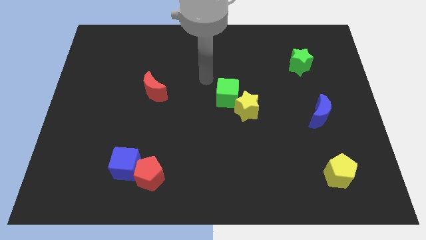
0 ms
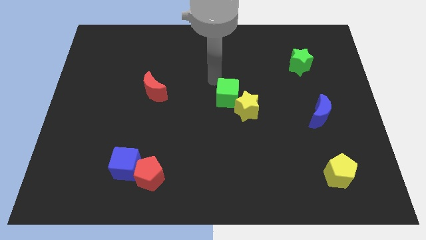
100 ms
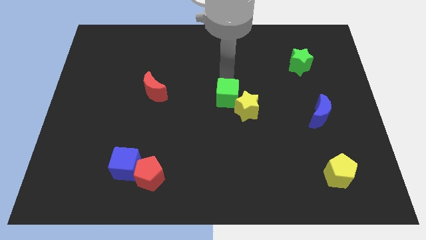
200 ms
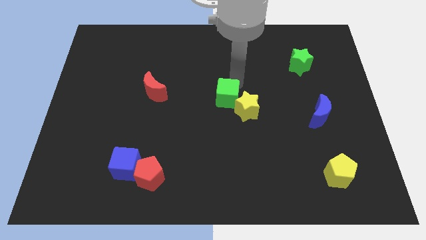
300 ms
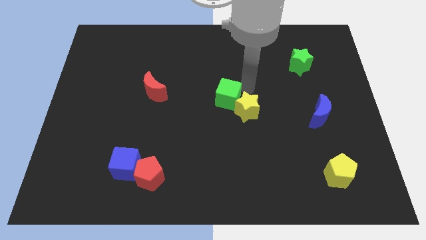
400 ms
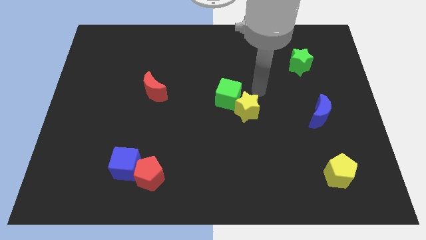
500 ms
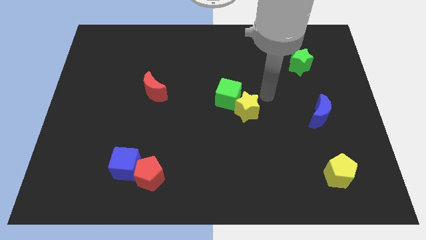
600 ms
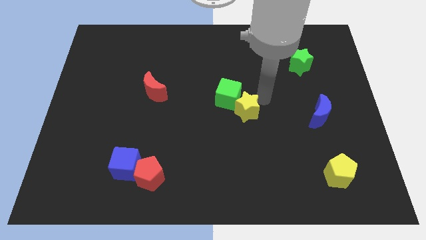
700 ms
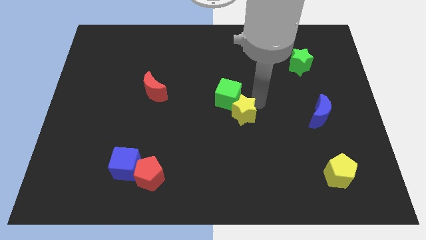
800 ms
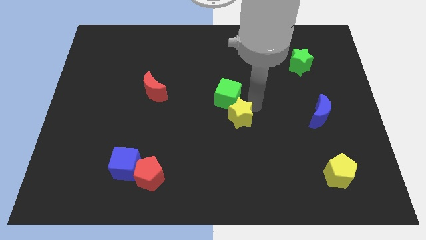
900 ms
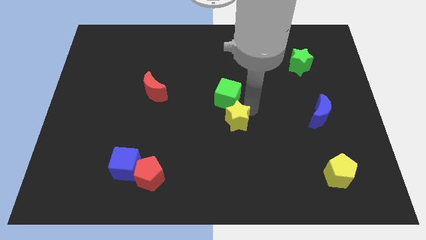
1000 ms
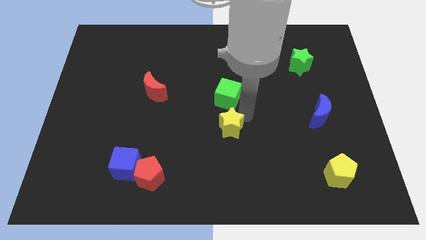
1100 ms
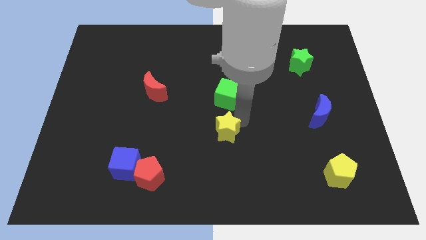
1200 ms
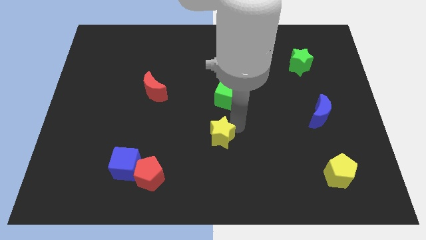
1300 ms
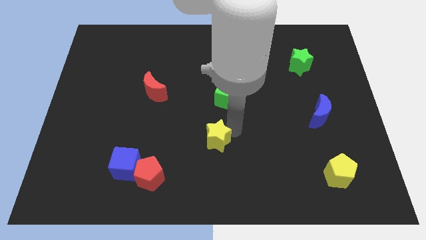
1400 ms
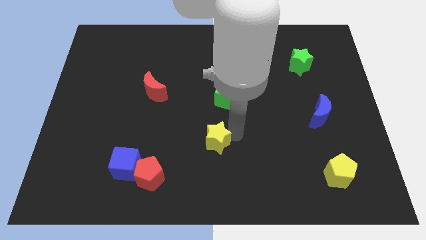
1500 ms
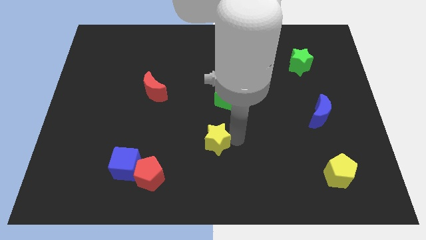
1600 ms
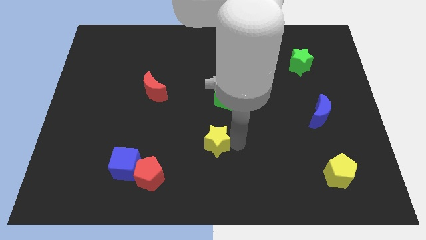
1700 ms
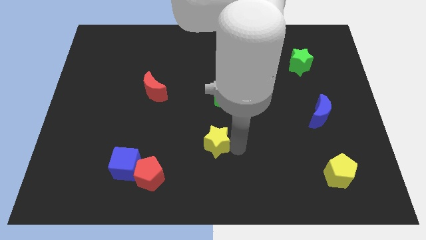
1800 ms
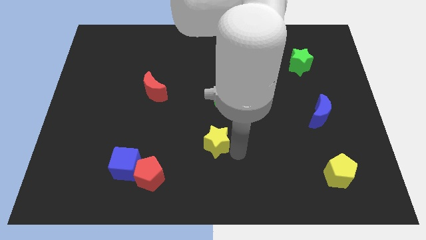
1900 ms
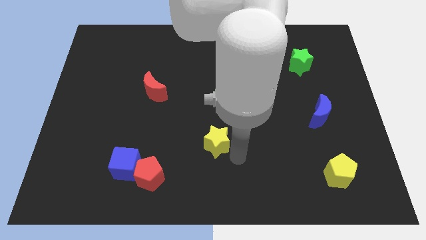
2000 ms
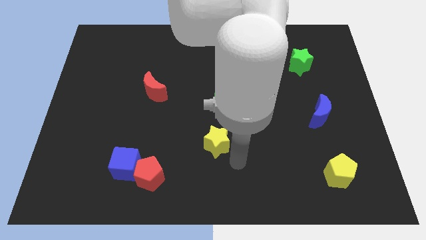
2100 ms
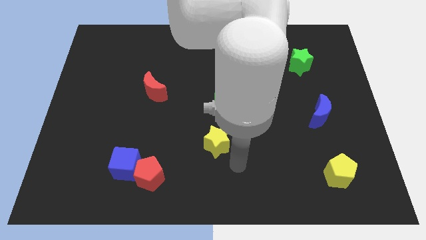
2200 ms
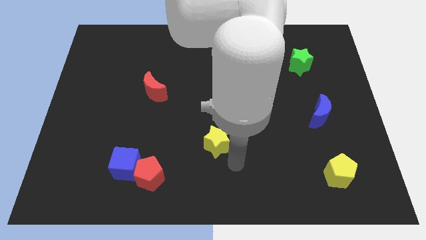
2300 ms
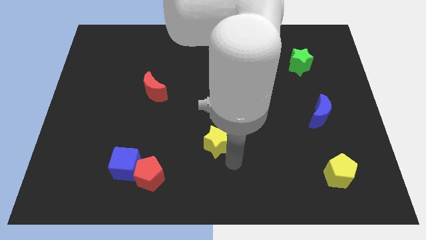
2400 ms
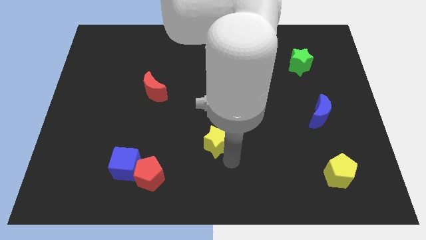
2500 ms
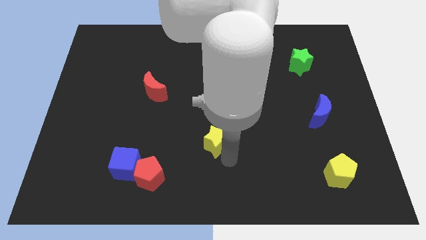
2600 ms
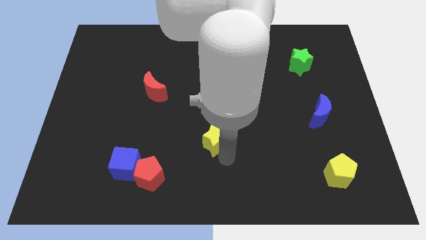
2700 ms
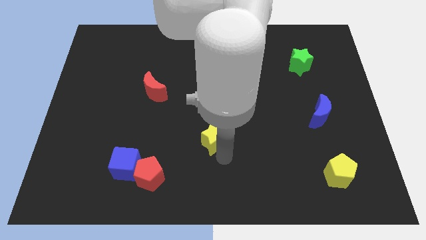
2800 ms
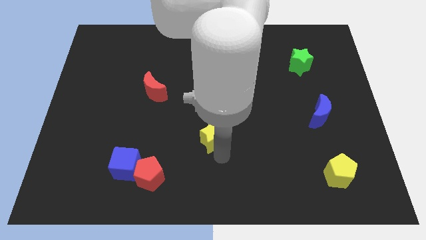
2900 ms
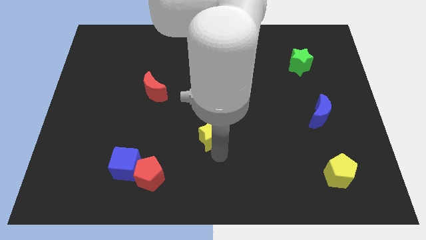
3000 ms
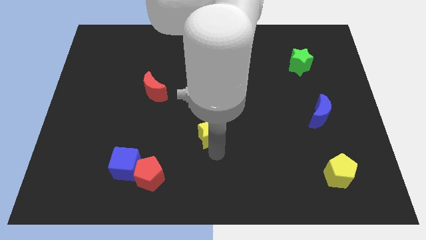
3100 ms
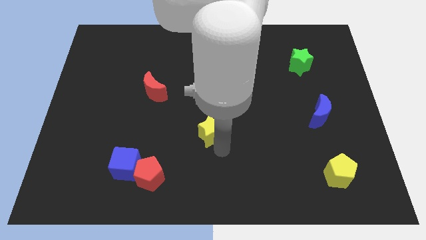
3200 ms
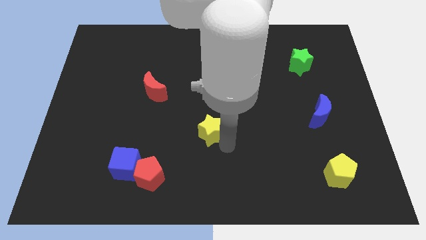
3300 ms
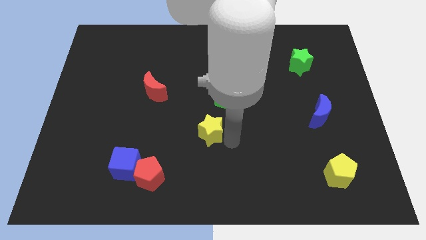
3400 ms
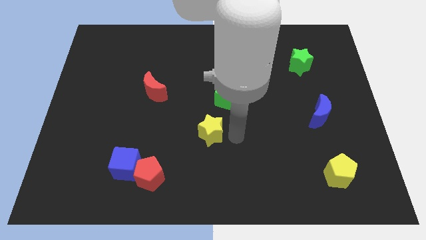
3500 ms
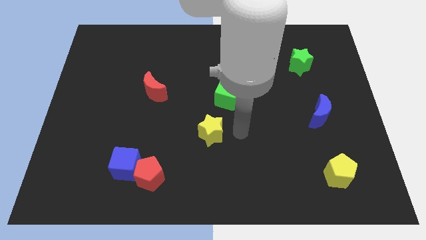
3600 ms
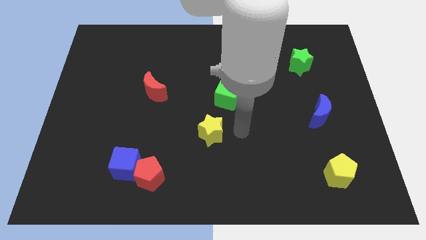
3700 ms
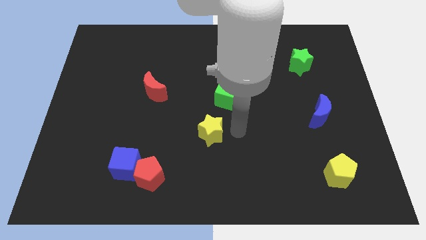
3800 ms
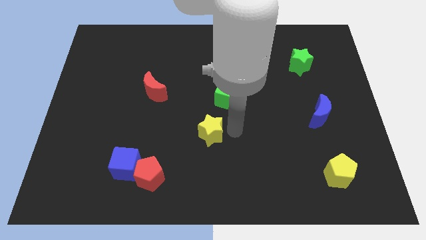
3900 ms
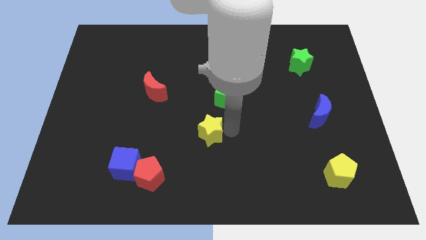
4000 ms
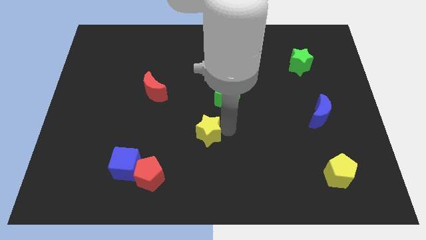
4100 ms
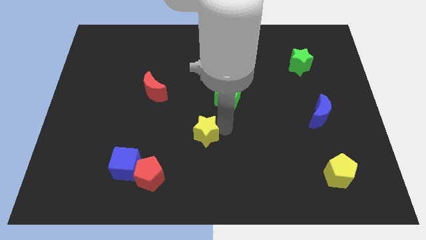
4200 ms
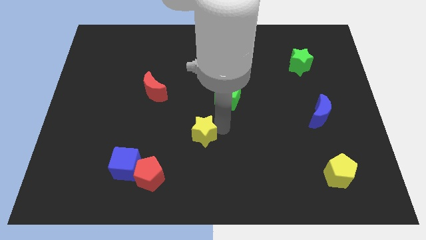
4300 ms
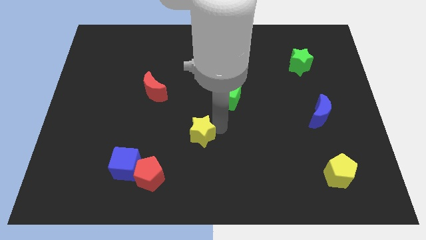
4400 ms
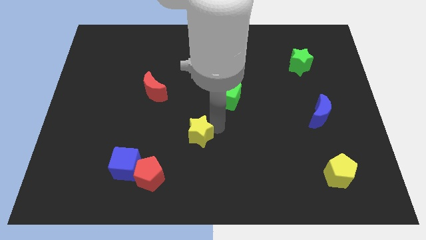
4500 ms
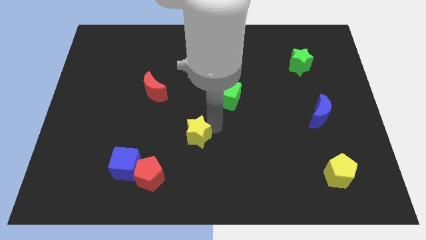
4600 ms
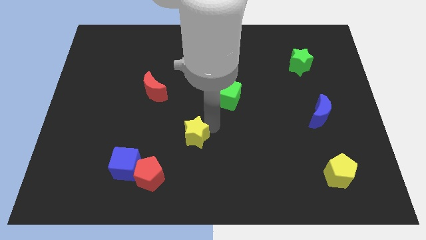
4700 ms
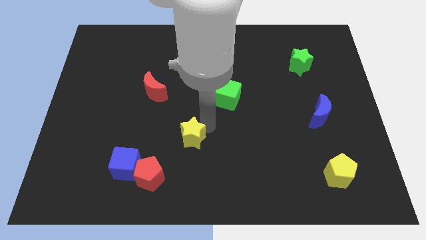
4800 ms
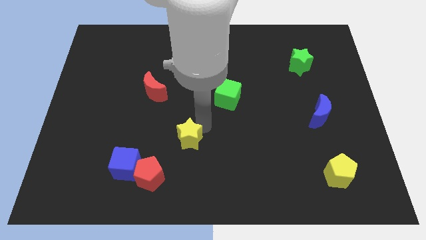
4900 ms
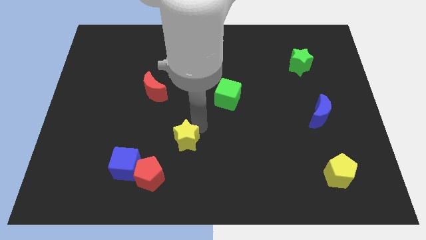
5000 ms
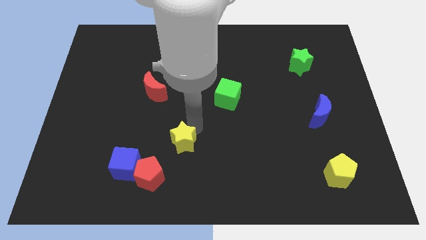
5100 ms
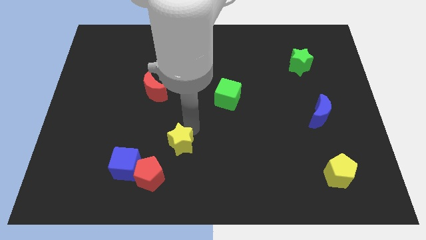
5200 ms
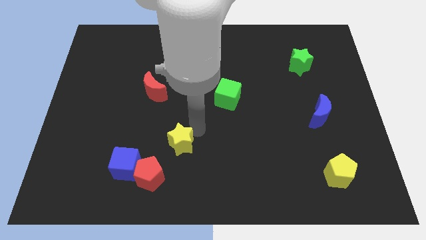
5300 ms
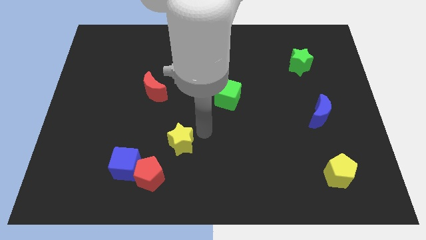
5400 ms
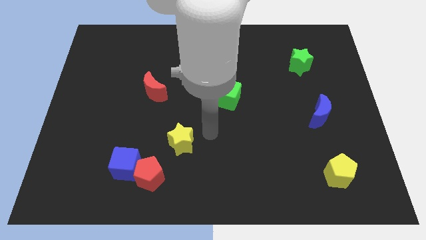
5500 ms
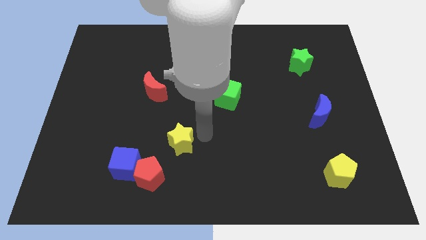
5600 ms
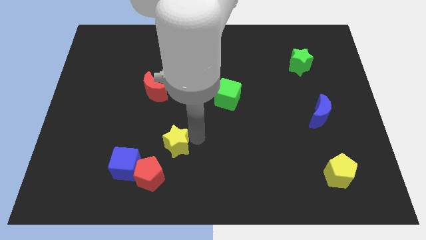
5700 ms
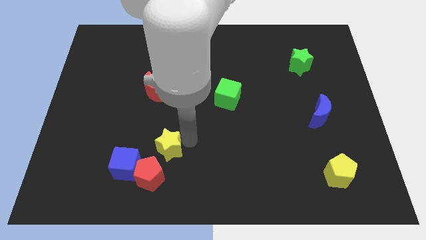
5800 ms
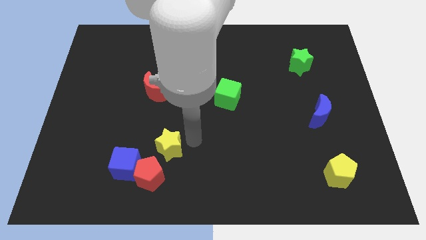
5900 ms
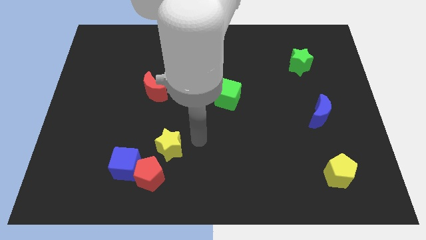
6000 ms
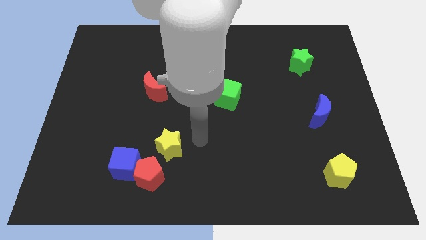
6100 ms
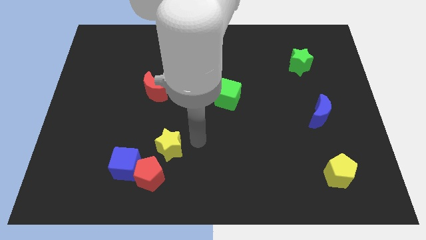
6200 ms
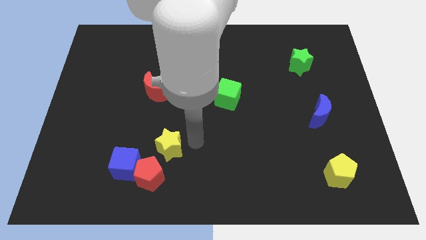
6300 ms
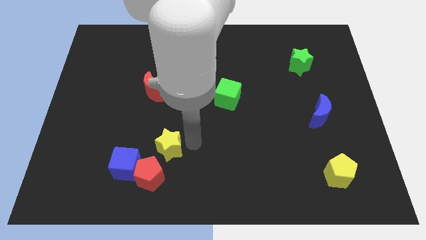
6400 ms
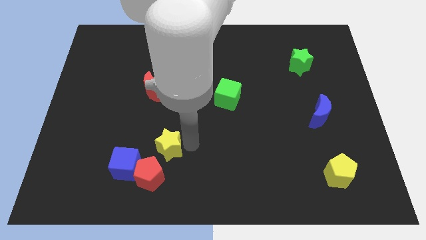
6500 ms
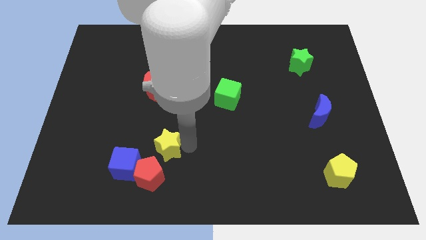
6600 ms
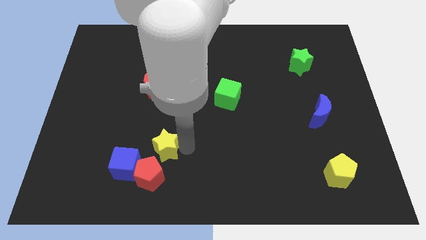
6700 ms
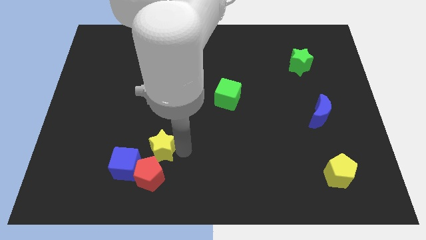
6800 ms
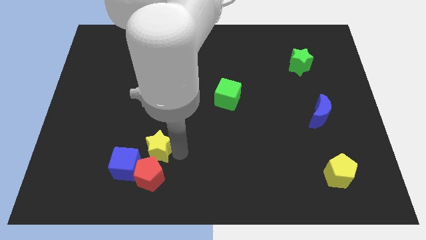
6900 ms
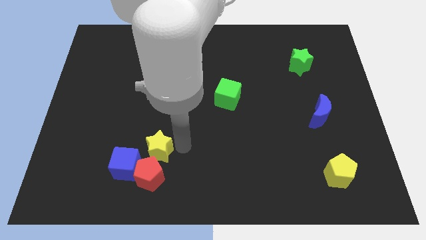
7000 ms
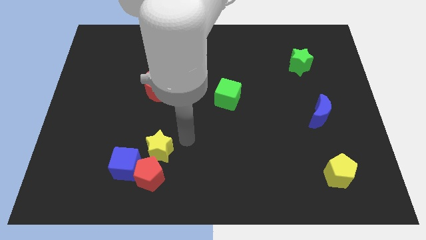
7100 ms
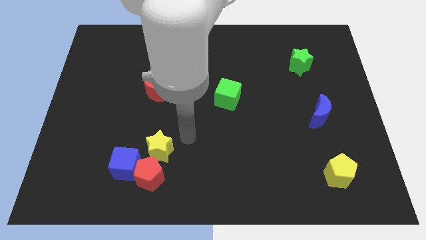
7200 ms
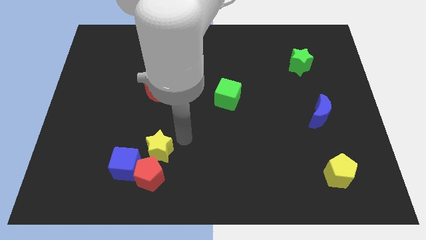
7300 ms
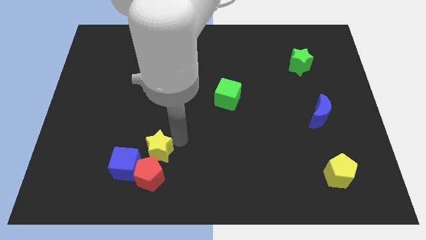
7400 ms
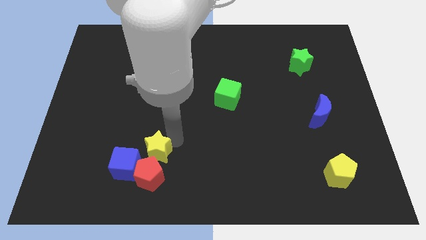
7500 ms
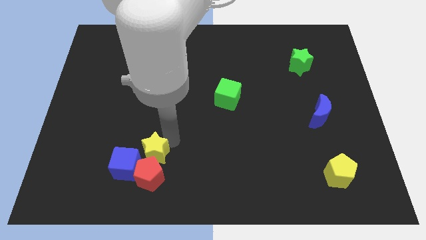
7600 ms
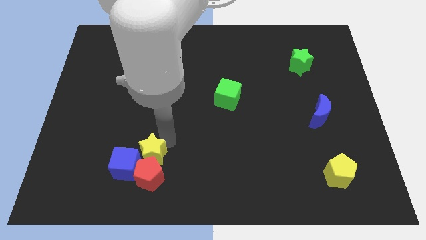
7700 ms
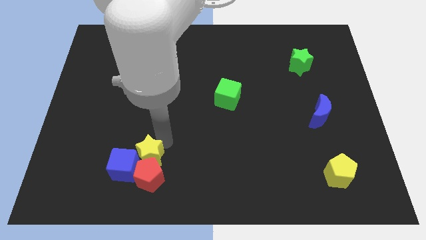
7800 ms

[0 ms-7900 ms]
push the yellow star to the blue cube
